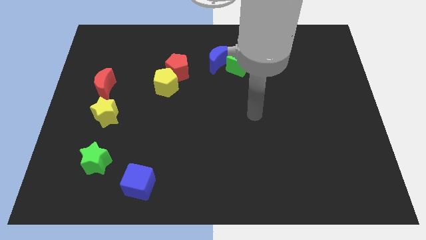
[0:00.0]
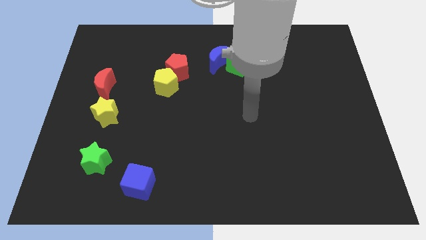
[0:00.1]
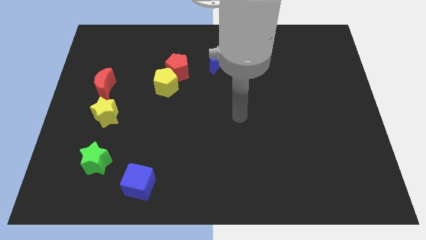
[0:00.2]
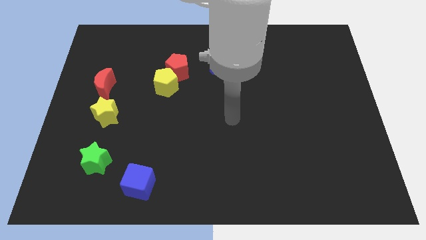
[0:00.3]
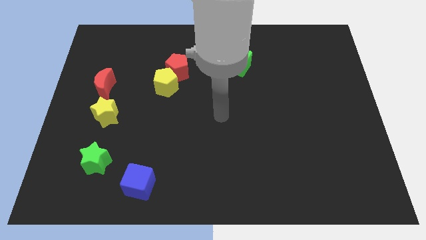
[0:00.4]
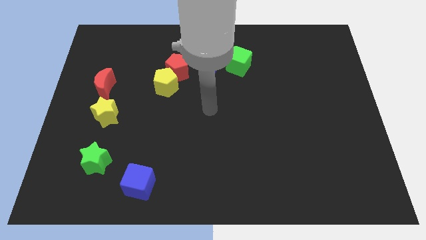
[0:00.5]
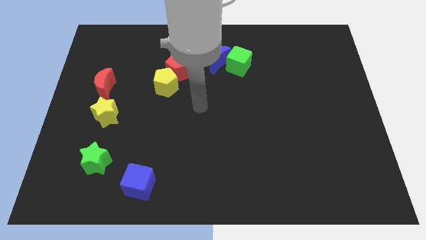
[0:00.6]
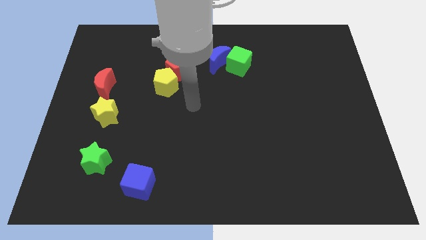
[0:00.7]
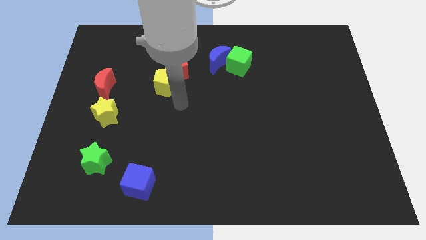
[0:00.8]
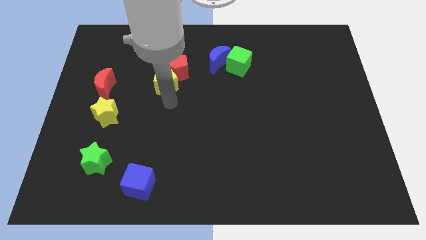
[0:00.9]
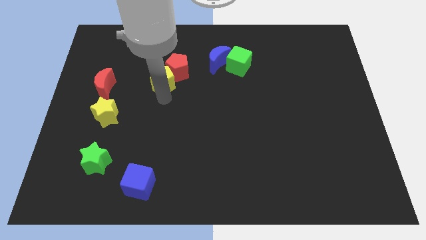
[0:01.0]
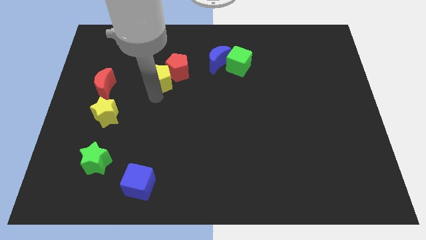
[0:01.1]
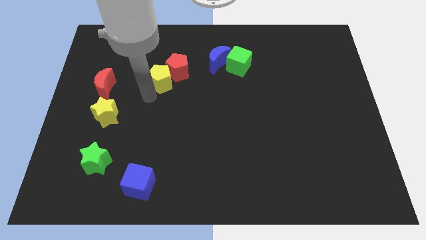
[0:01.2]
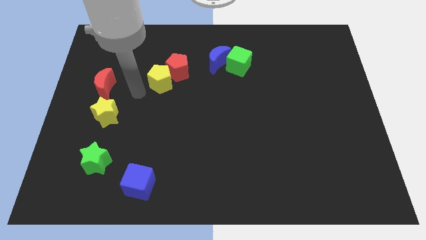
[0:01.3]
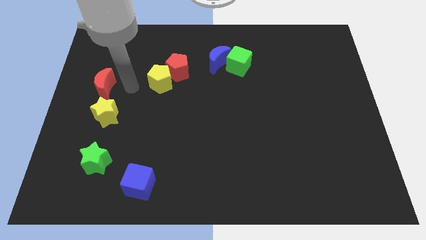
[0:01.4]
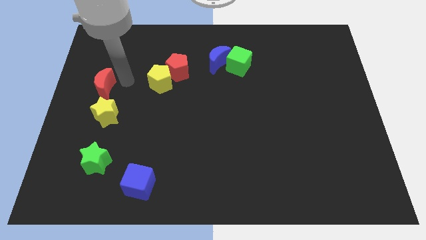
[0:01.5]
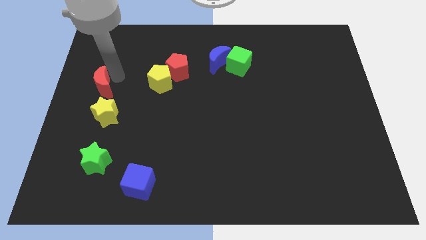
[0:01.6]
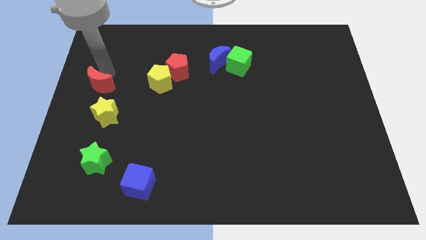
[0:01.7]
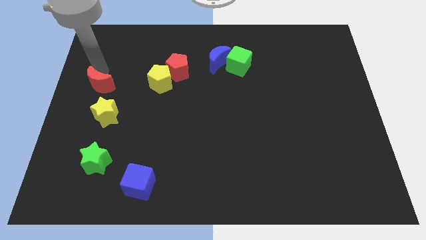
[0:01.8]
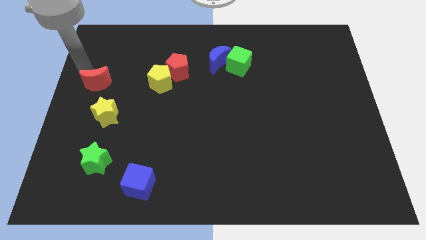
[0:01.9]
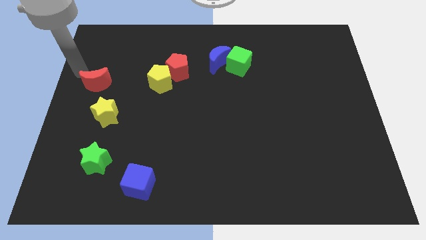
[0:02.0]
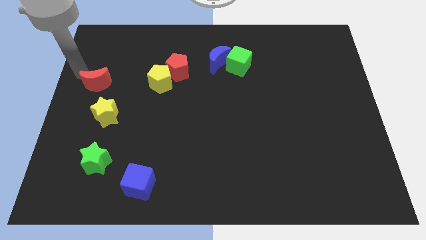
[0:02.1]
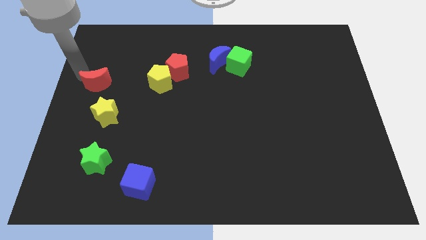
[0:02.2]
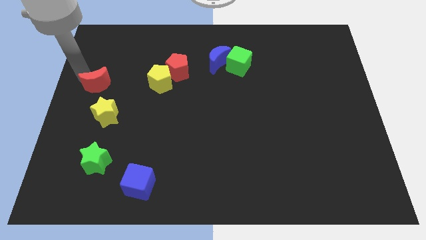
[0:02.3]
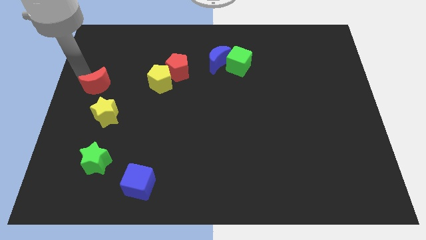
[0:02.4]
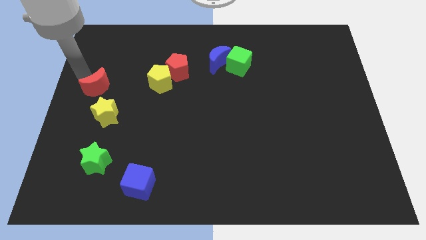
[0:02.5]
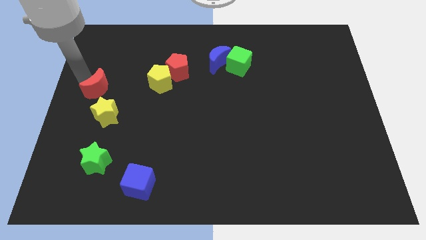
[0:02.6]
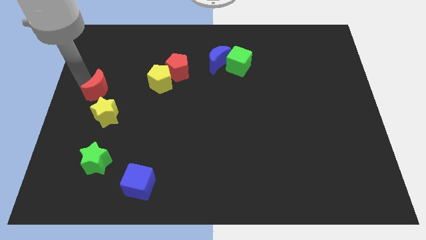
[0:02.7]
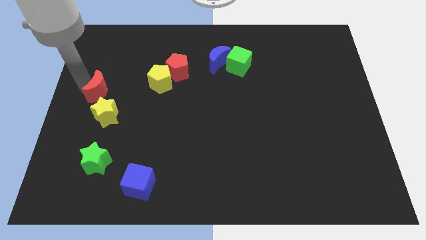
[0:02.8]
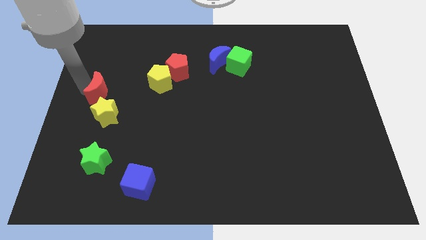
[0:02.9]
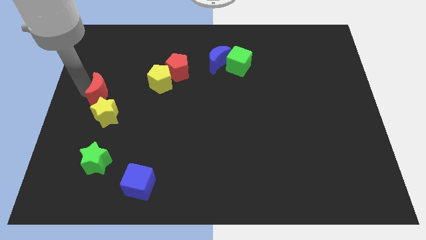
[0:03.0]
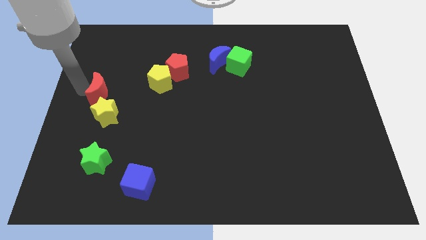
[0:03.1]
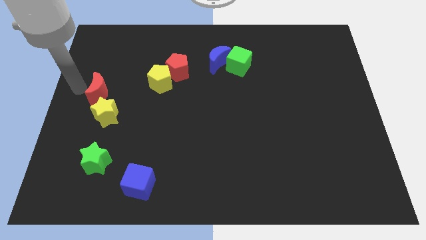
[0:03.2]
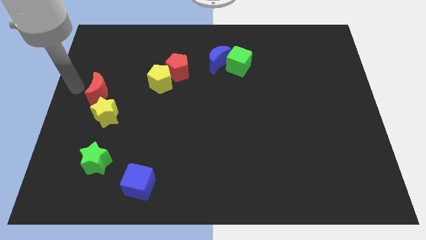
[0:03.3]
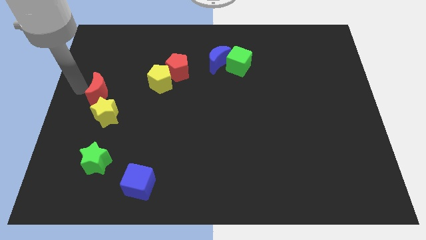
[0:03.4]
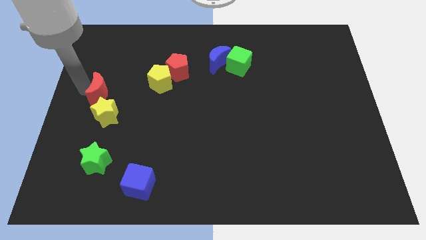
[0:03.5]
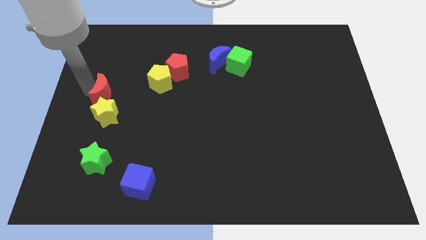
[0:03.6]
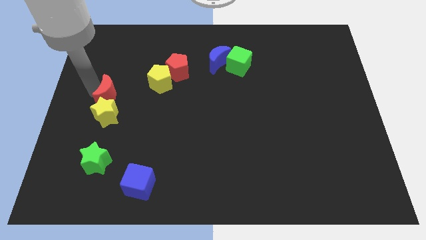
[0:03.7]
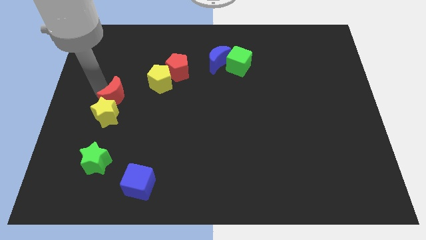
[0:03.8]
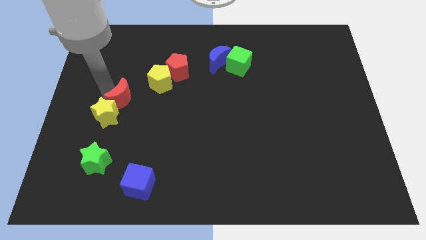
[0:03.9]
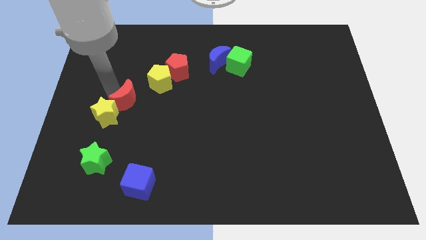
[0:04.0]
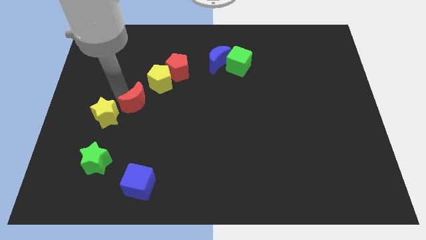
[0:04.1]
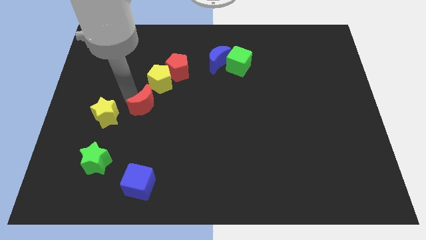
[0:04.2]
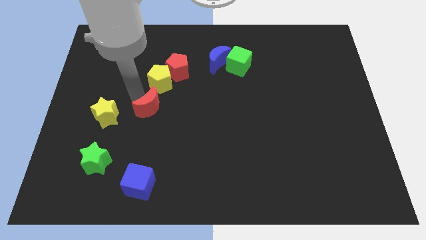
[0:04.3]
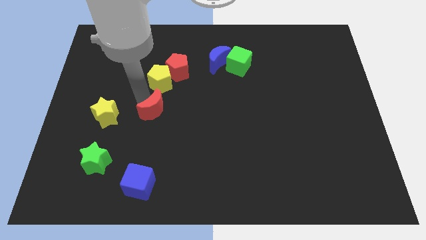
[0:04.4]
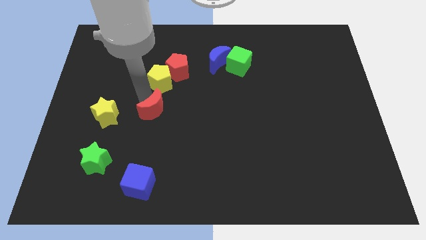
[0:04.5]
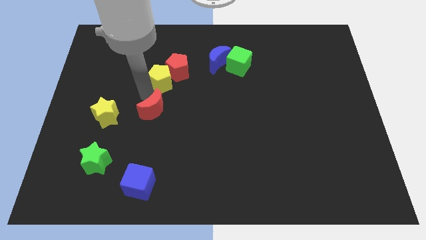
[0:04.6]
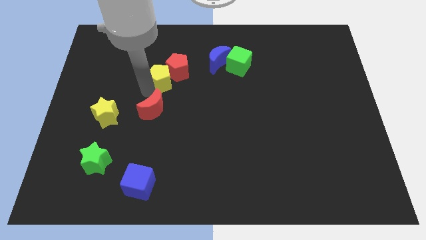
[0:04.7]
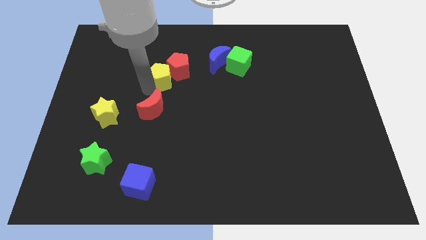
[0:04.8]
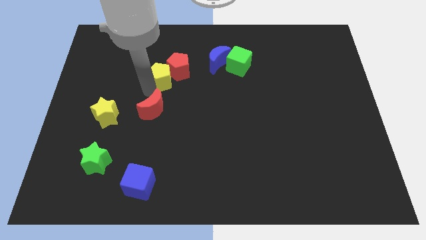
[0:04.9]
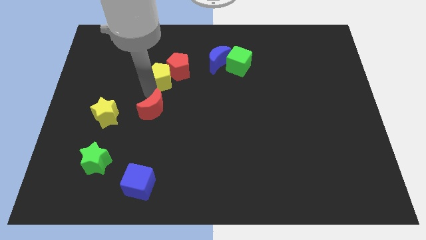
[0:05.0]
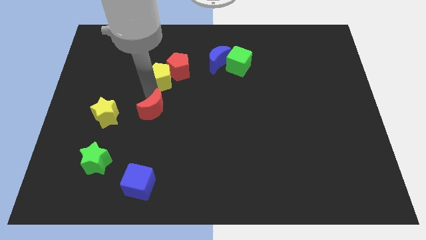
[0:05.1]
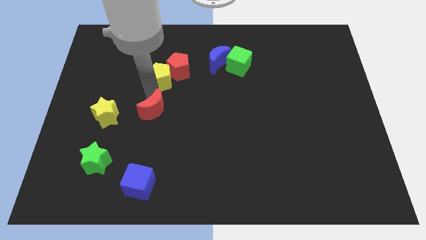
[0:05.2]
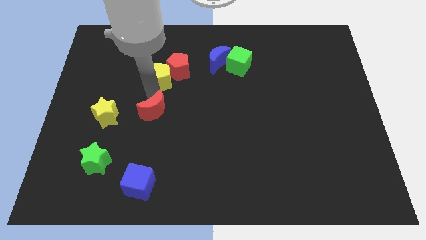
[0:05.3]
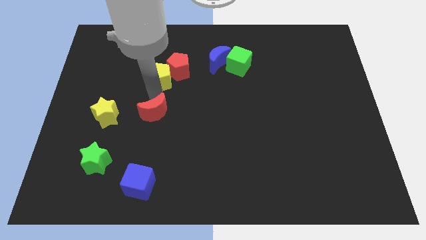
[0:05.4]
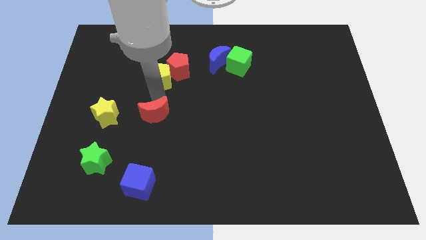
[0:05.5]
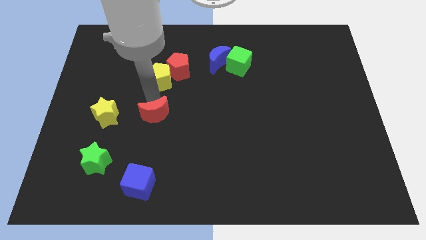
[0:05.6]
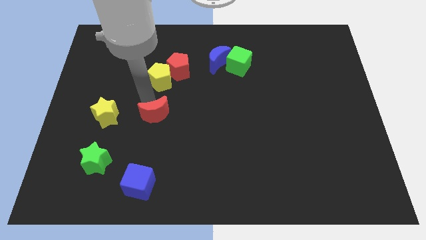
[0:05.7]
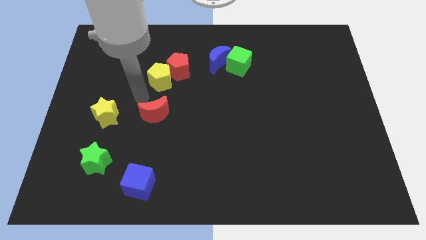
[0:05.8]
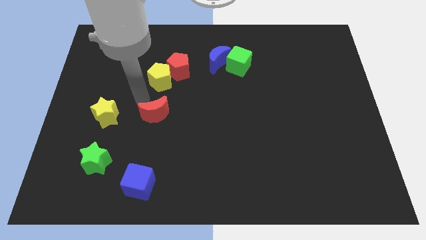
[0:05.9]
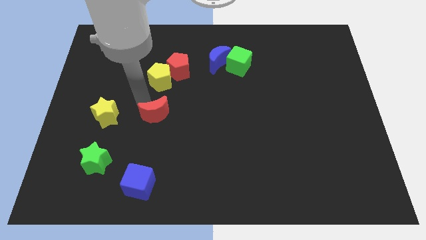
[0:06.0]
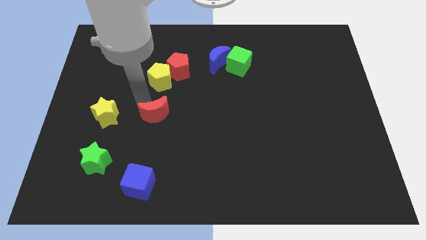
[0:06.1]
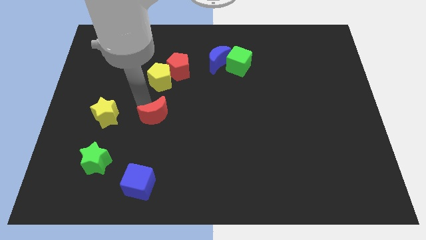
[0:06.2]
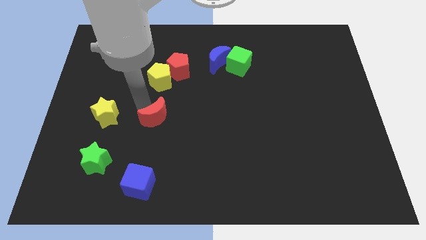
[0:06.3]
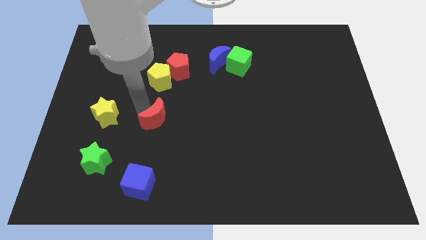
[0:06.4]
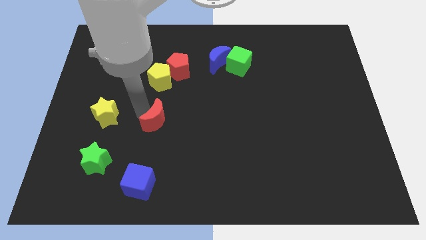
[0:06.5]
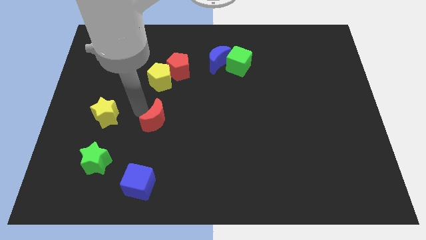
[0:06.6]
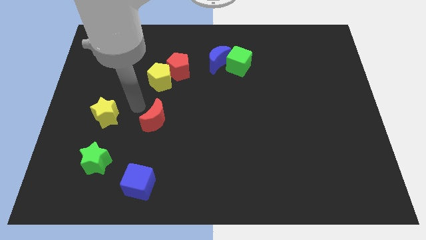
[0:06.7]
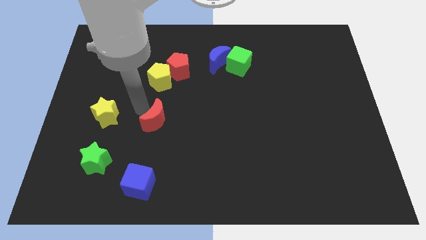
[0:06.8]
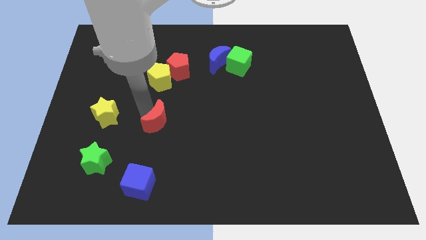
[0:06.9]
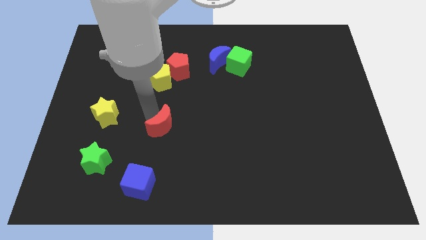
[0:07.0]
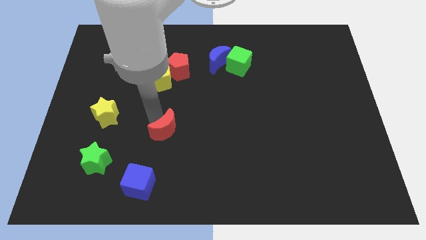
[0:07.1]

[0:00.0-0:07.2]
move the red moon downwards and right diagonally

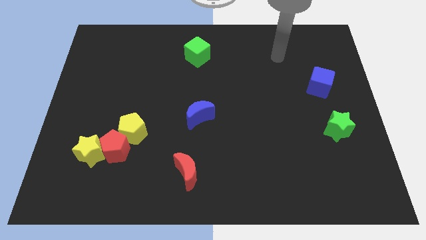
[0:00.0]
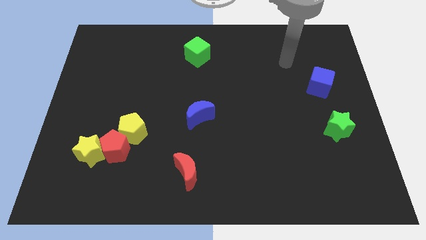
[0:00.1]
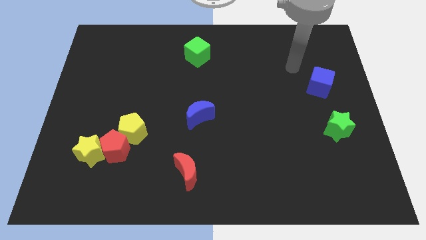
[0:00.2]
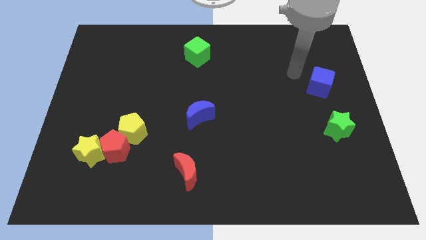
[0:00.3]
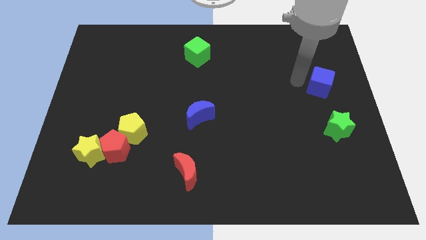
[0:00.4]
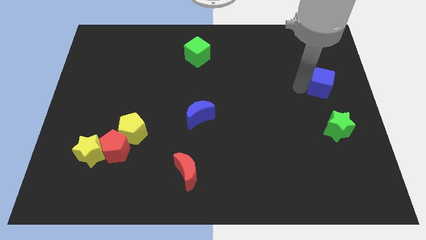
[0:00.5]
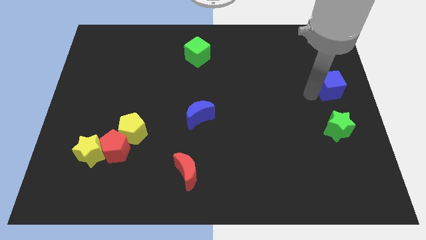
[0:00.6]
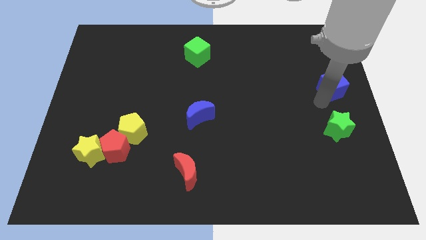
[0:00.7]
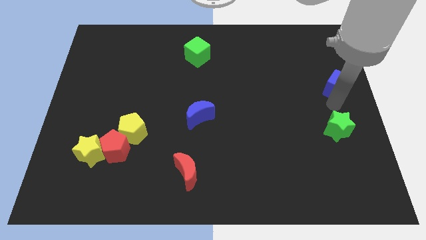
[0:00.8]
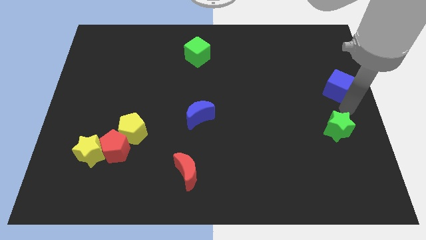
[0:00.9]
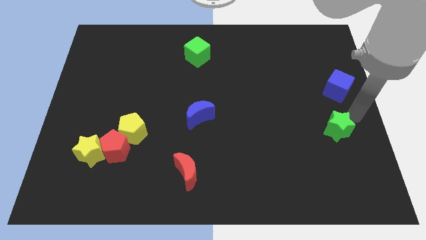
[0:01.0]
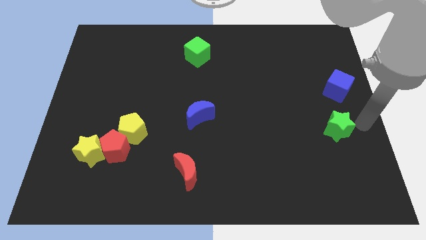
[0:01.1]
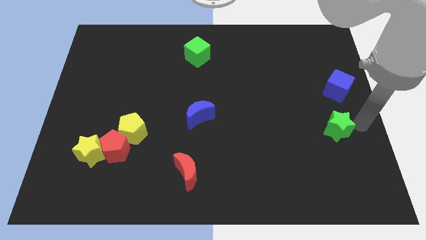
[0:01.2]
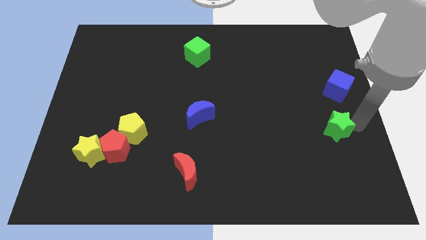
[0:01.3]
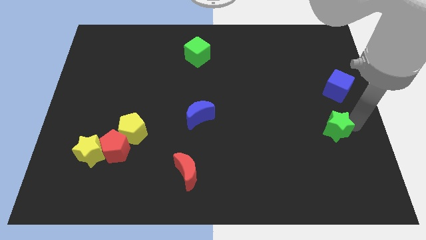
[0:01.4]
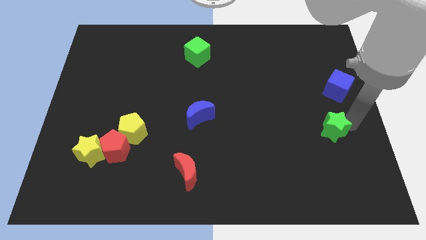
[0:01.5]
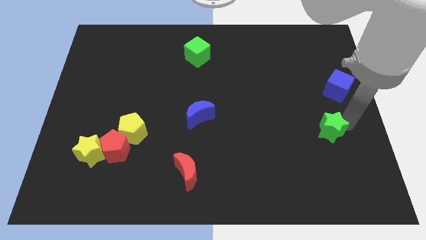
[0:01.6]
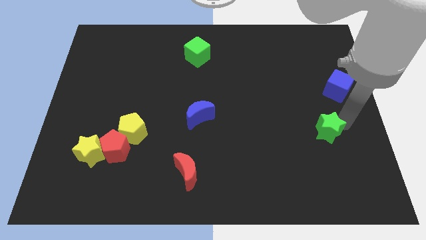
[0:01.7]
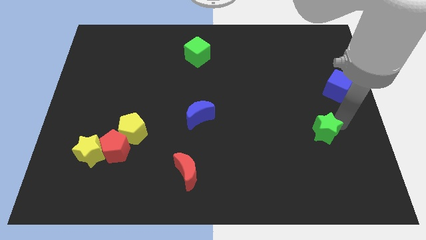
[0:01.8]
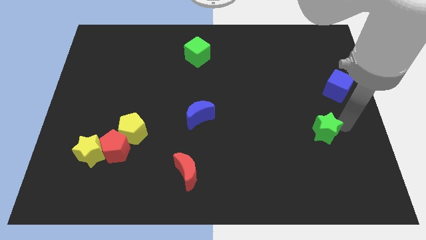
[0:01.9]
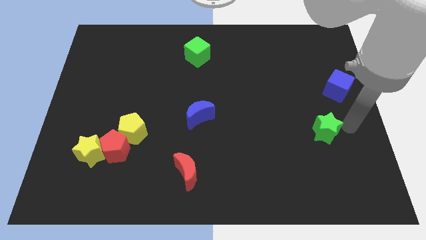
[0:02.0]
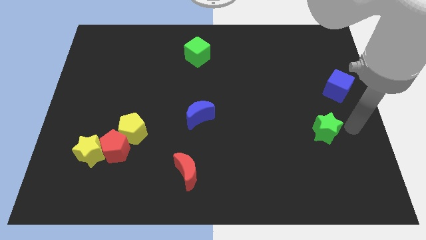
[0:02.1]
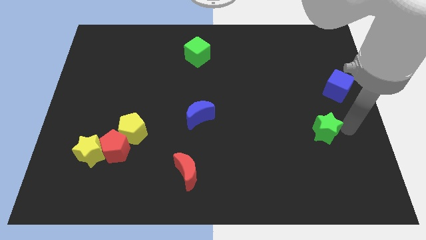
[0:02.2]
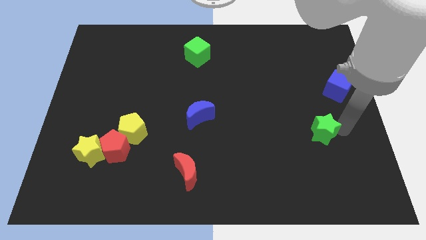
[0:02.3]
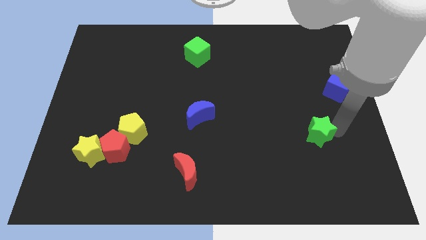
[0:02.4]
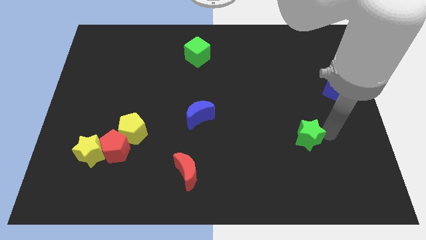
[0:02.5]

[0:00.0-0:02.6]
move the green star left a bit
